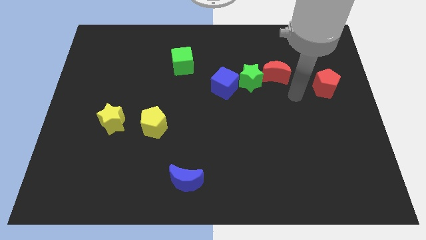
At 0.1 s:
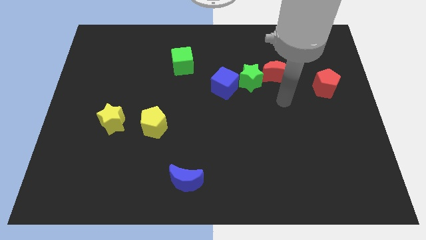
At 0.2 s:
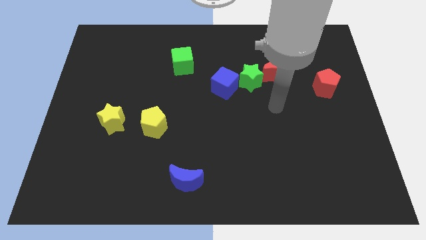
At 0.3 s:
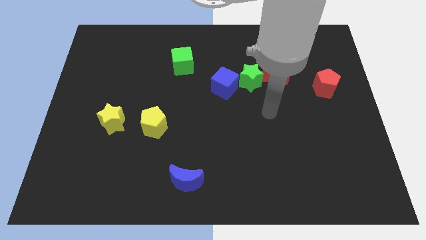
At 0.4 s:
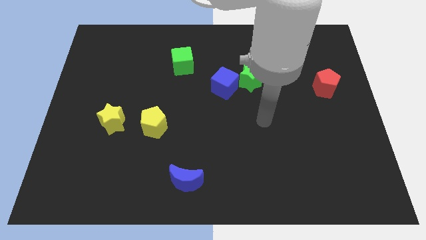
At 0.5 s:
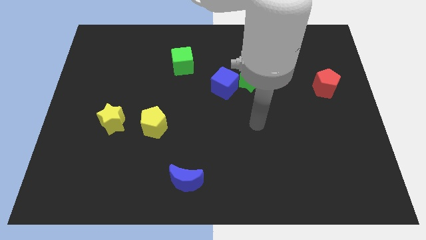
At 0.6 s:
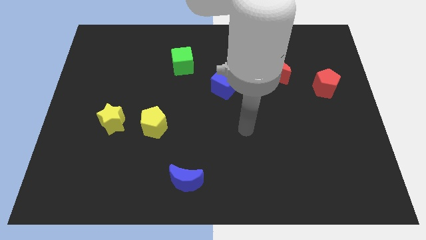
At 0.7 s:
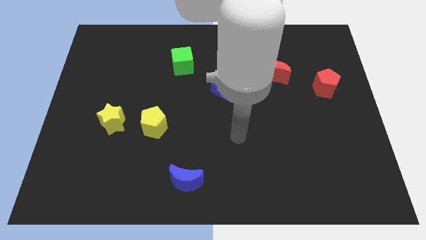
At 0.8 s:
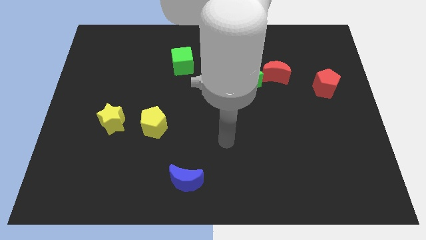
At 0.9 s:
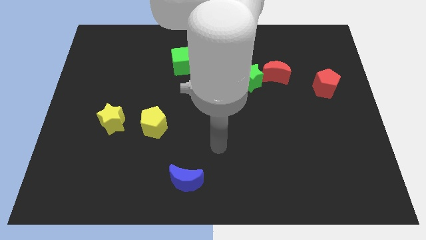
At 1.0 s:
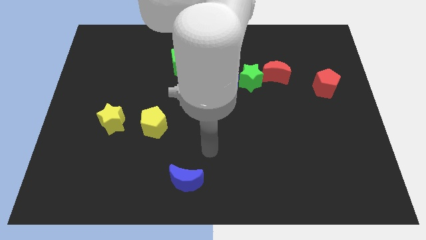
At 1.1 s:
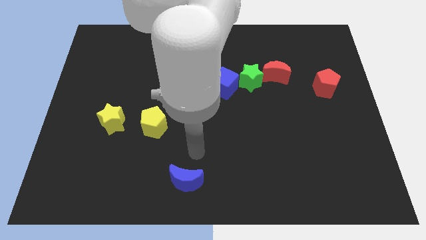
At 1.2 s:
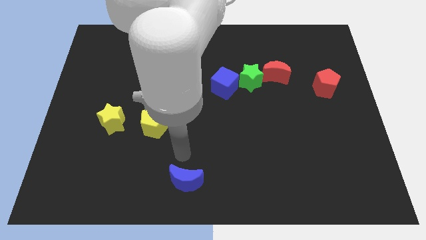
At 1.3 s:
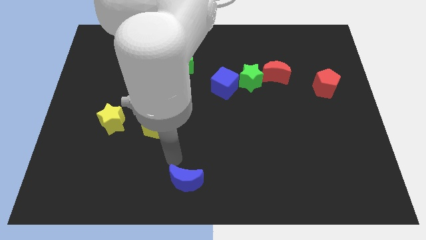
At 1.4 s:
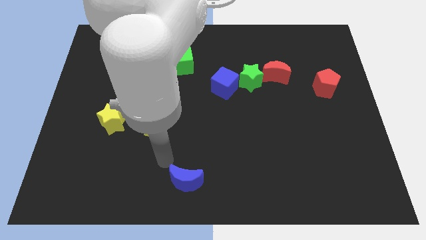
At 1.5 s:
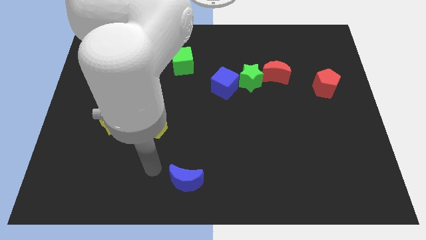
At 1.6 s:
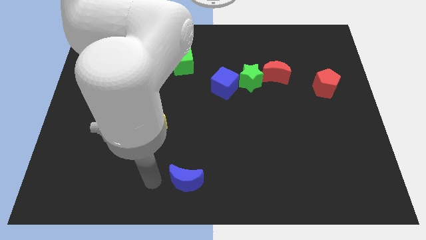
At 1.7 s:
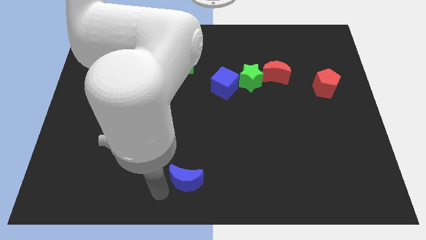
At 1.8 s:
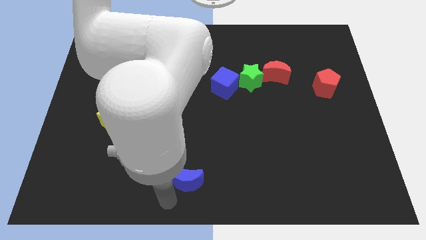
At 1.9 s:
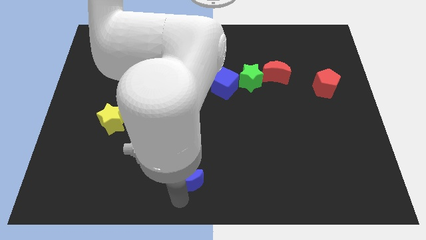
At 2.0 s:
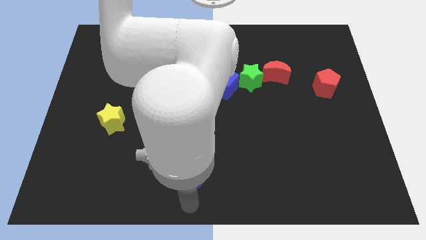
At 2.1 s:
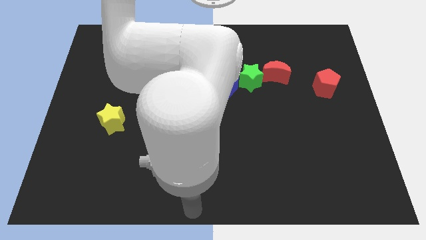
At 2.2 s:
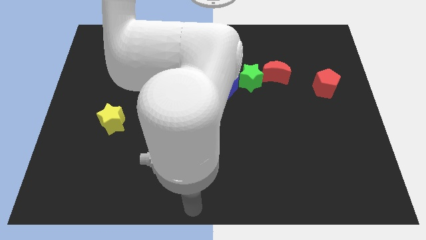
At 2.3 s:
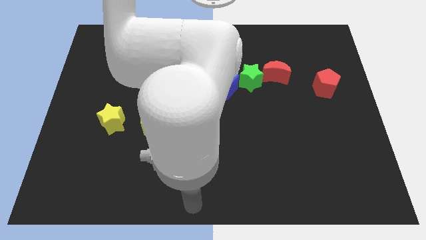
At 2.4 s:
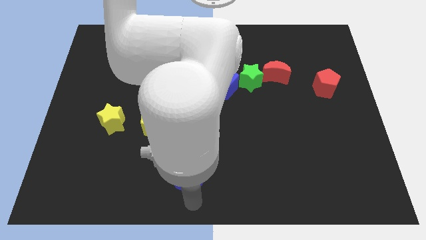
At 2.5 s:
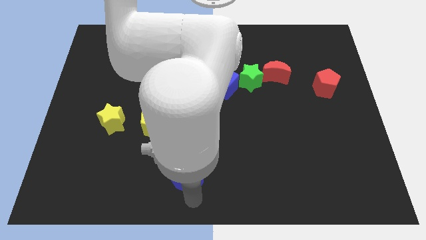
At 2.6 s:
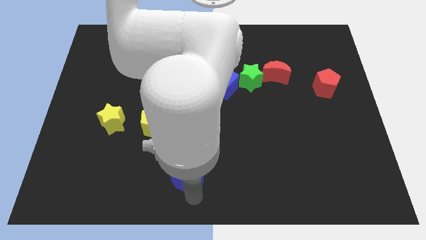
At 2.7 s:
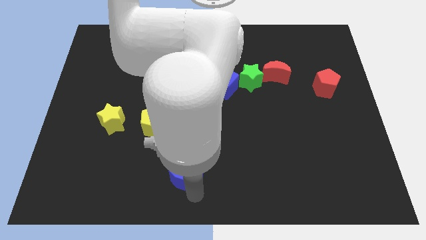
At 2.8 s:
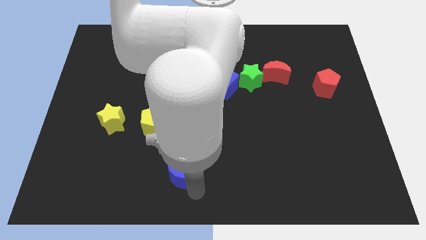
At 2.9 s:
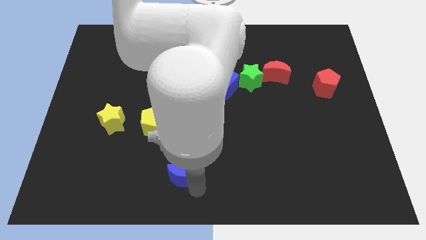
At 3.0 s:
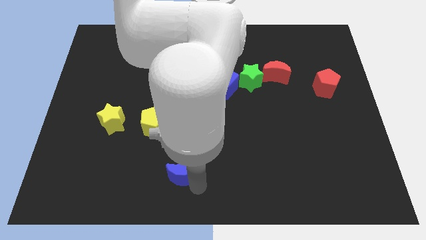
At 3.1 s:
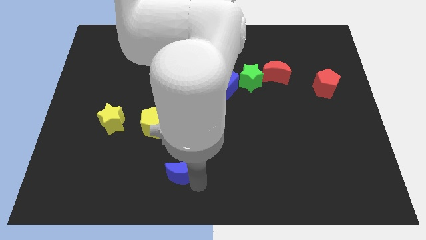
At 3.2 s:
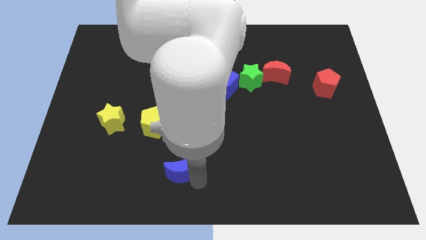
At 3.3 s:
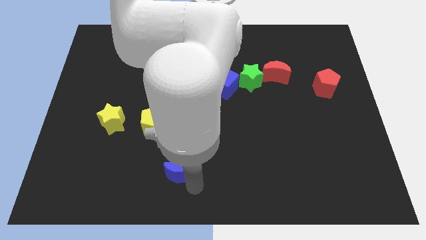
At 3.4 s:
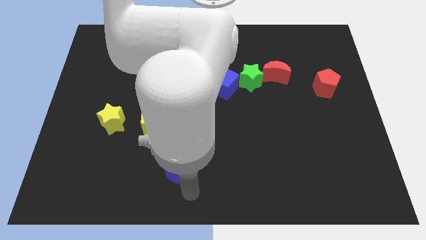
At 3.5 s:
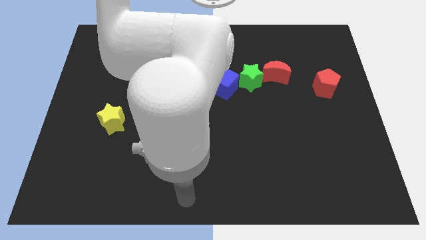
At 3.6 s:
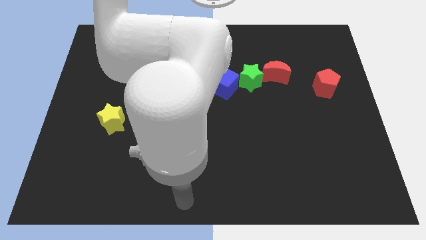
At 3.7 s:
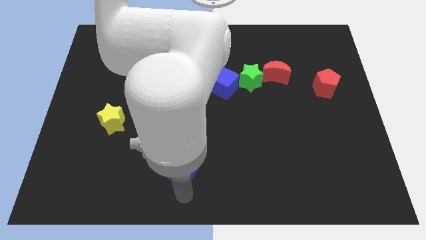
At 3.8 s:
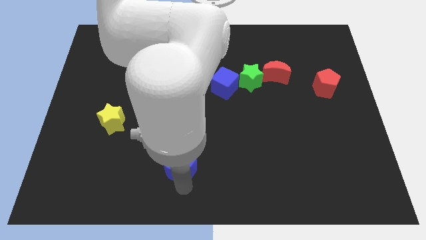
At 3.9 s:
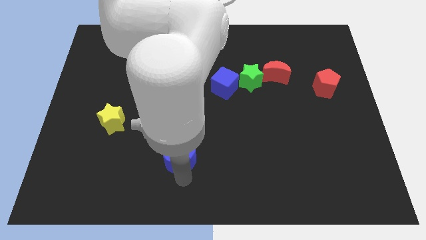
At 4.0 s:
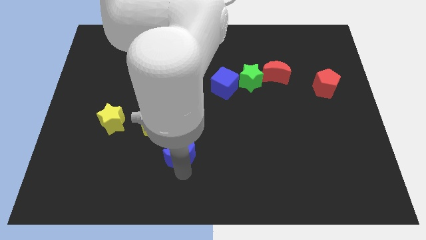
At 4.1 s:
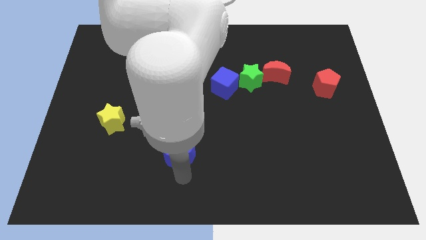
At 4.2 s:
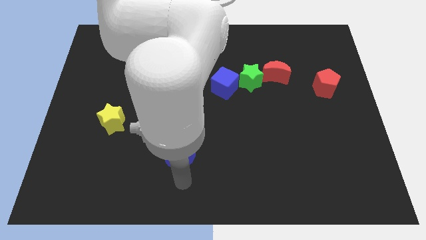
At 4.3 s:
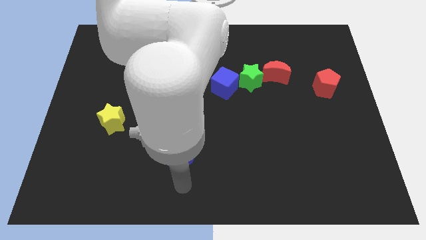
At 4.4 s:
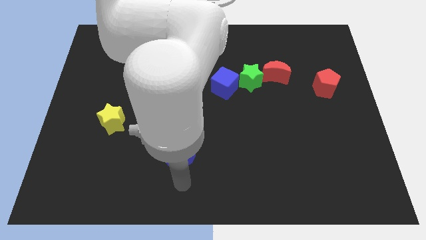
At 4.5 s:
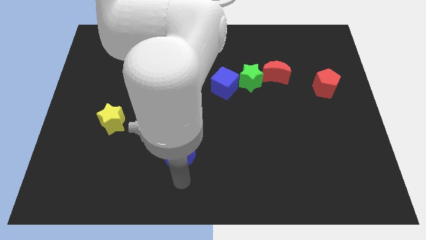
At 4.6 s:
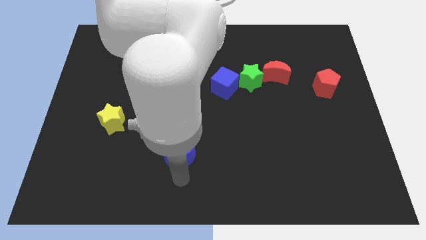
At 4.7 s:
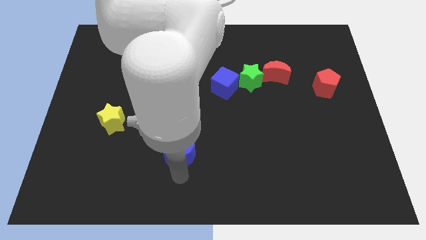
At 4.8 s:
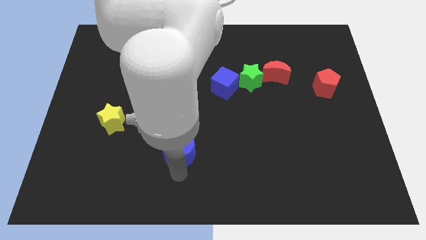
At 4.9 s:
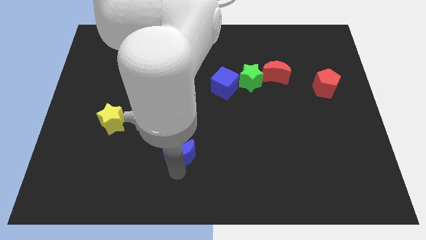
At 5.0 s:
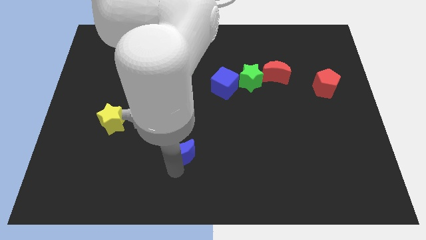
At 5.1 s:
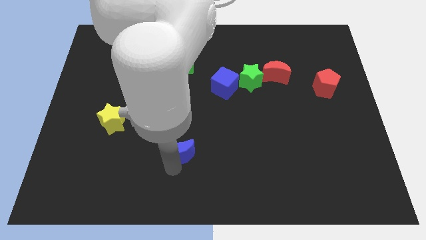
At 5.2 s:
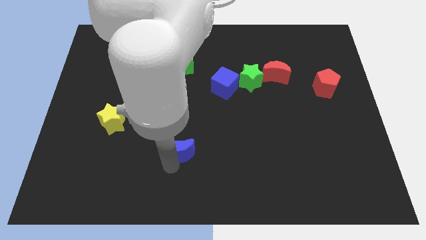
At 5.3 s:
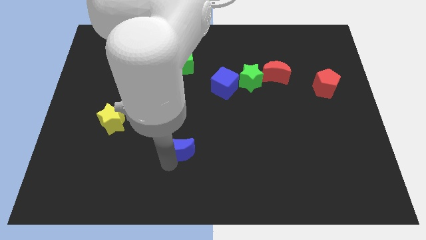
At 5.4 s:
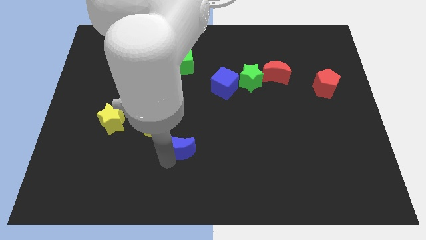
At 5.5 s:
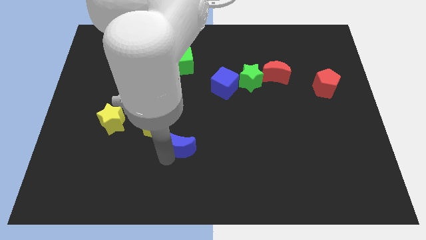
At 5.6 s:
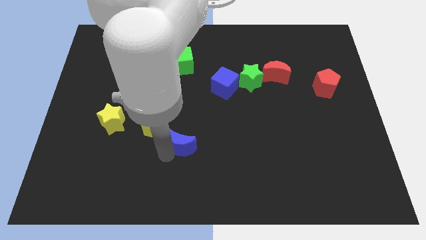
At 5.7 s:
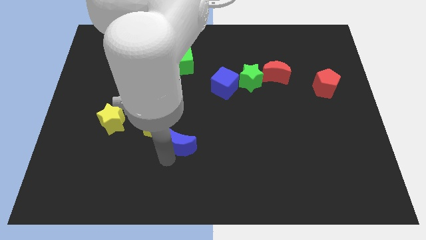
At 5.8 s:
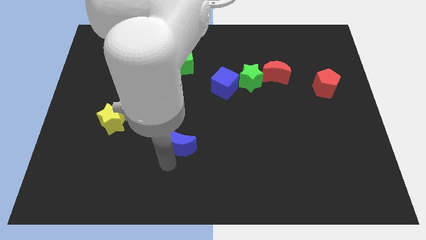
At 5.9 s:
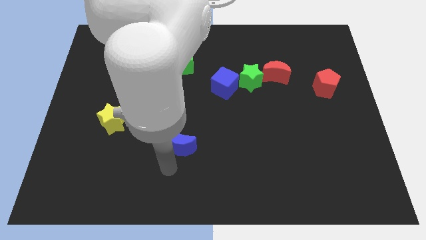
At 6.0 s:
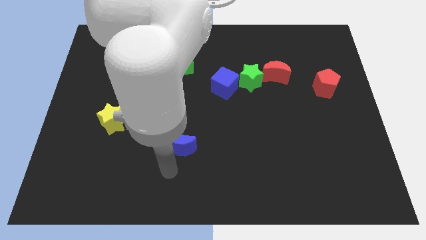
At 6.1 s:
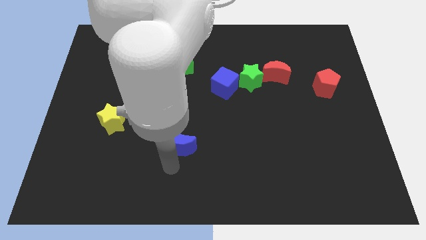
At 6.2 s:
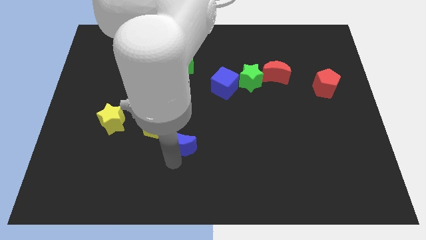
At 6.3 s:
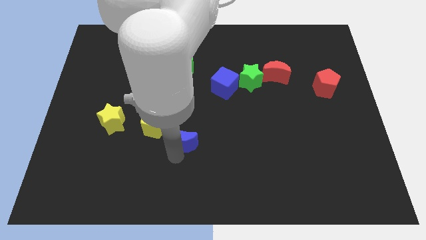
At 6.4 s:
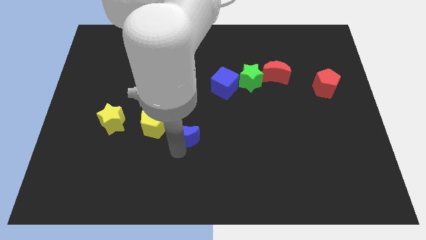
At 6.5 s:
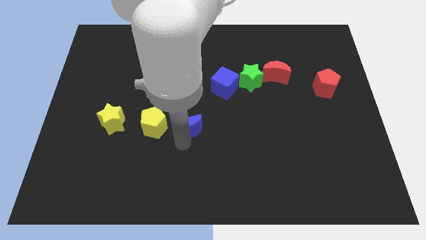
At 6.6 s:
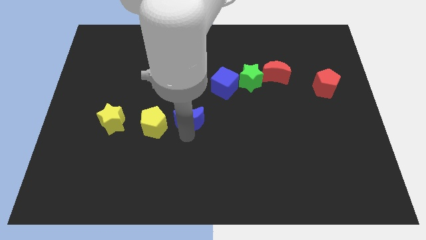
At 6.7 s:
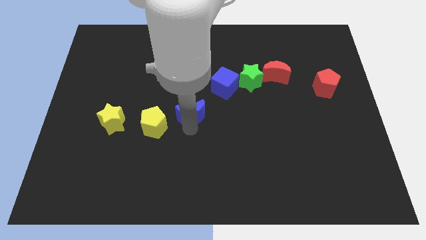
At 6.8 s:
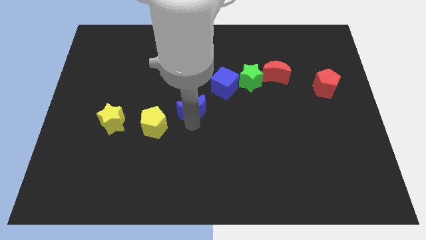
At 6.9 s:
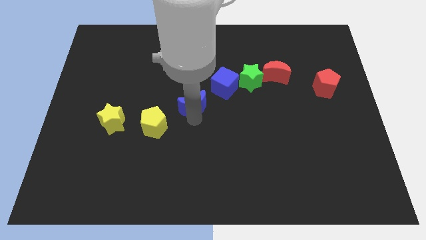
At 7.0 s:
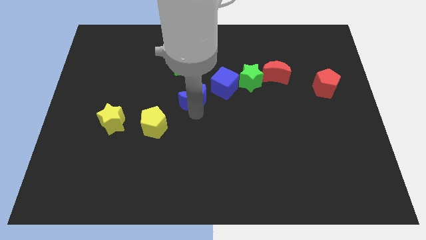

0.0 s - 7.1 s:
move the blue moon left of the blue cube
